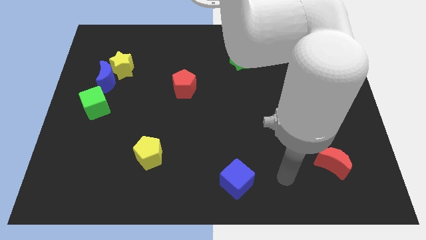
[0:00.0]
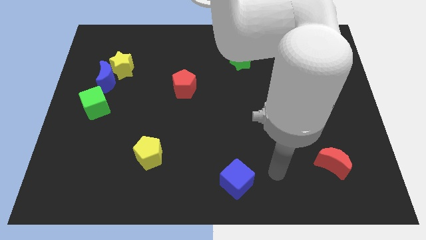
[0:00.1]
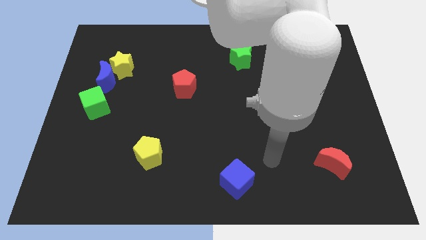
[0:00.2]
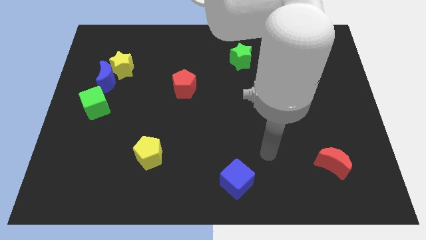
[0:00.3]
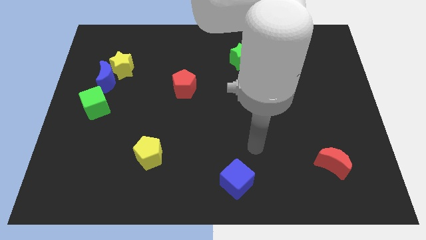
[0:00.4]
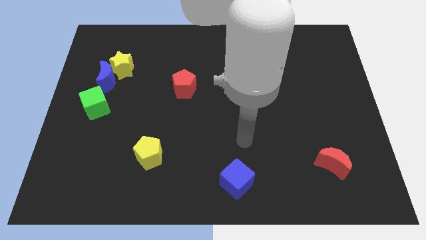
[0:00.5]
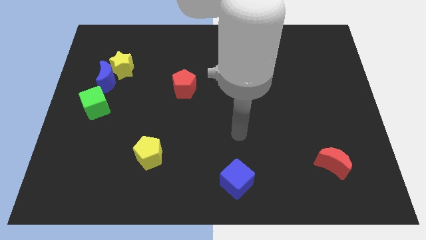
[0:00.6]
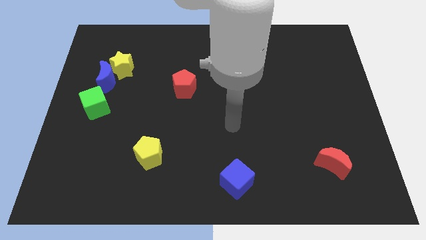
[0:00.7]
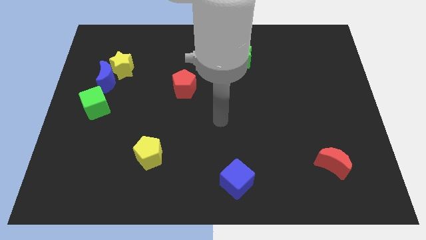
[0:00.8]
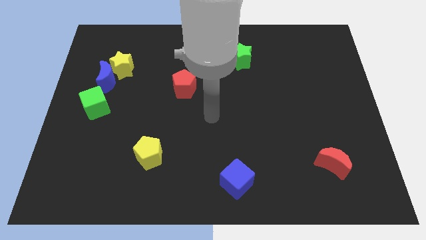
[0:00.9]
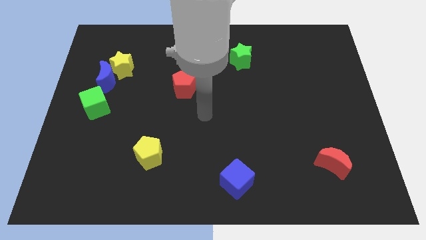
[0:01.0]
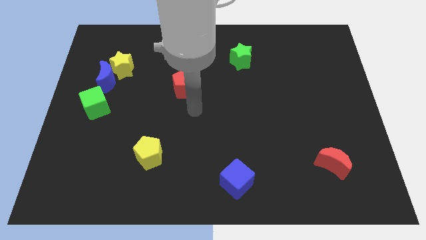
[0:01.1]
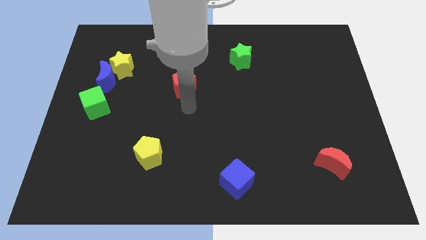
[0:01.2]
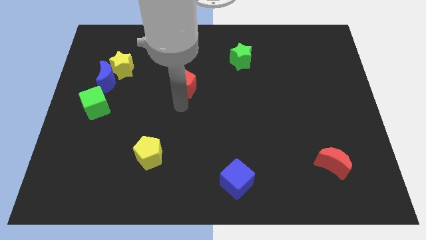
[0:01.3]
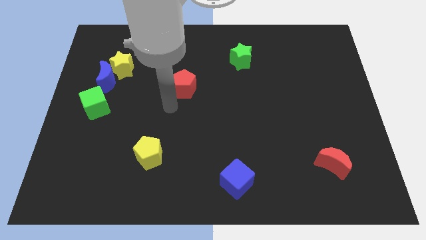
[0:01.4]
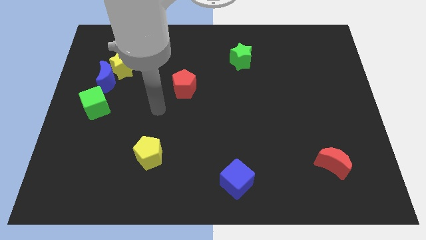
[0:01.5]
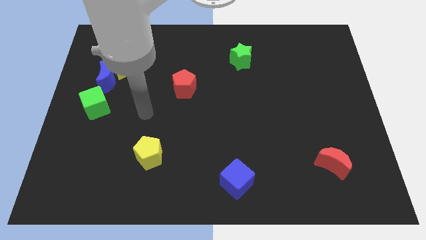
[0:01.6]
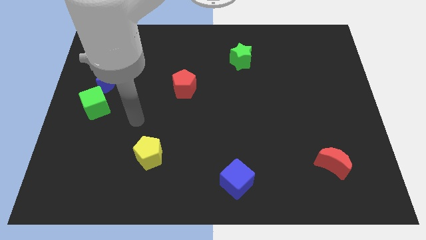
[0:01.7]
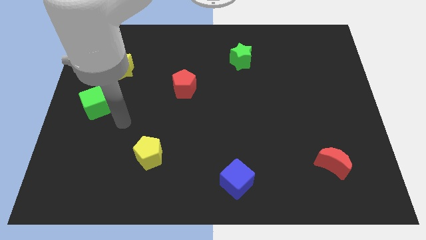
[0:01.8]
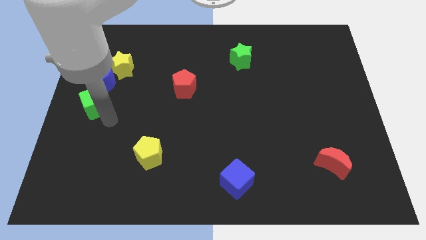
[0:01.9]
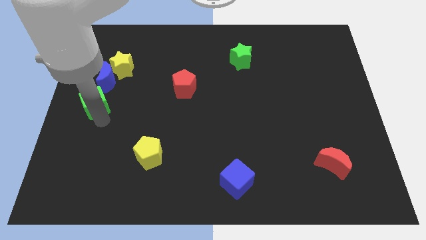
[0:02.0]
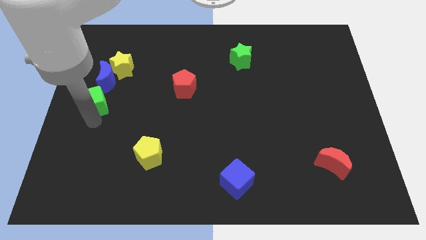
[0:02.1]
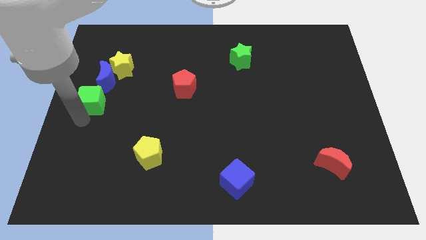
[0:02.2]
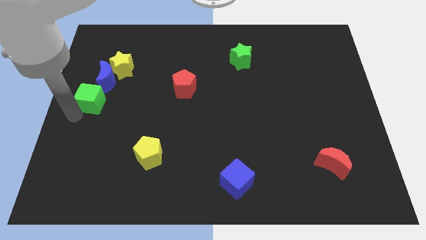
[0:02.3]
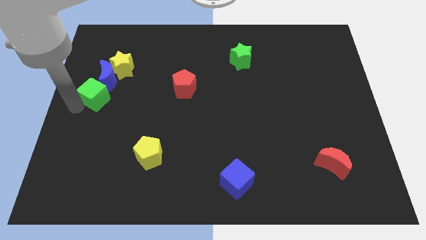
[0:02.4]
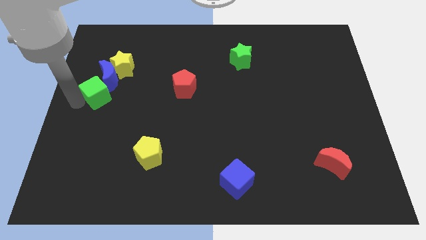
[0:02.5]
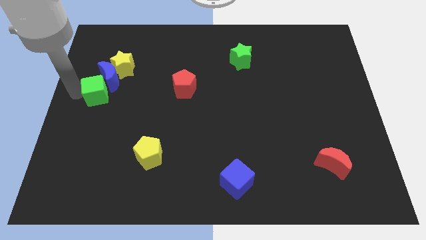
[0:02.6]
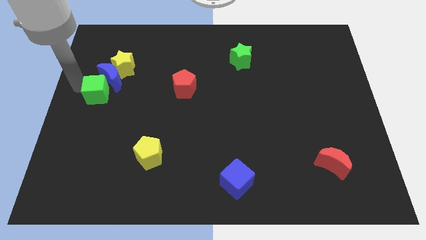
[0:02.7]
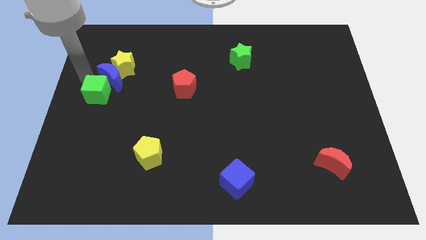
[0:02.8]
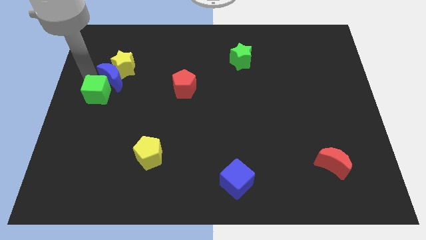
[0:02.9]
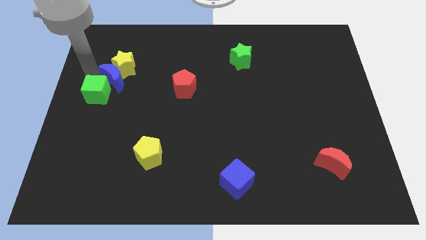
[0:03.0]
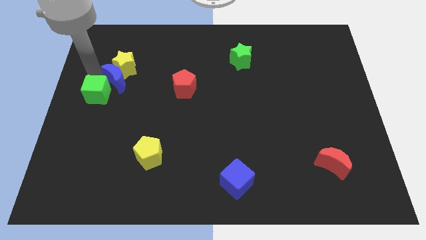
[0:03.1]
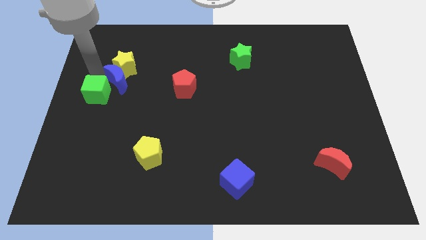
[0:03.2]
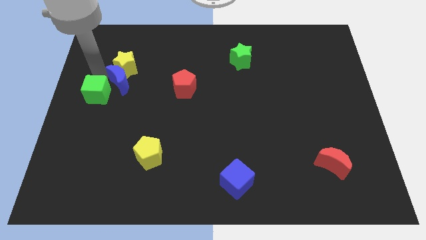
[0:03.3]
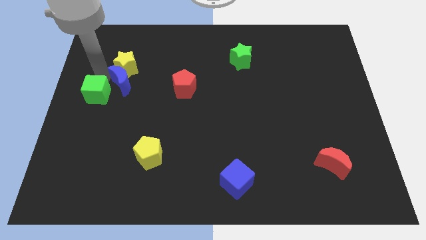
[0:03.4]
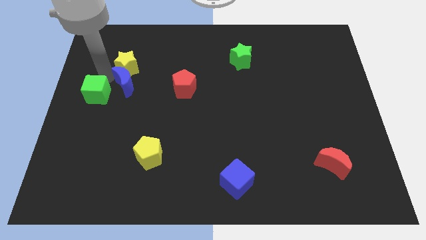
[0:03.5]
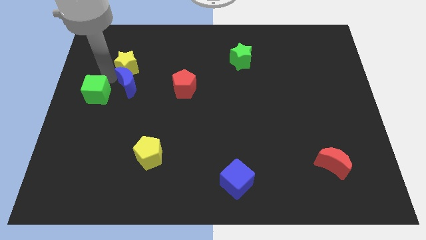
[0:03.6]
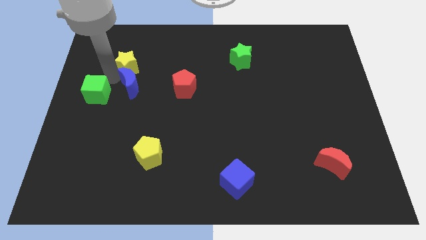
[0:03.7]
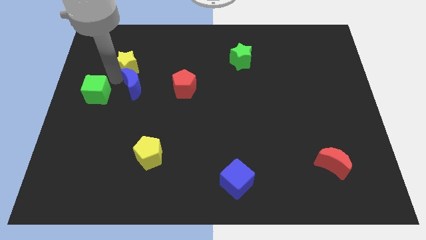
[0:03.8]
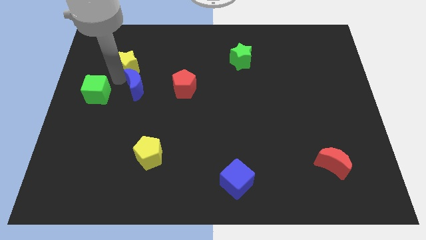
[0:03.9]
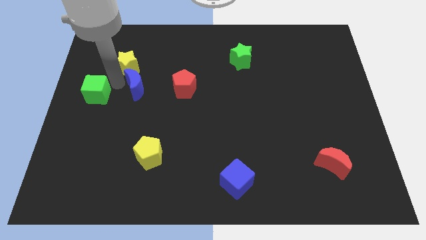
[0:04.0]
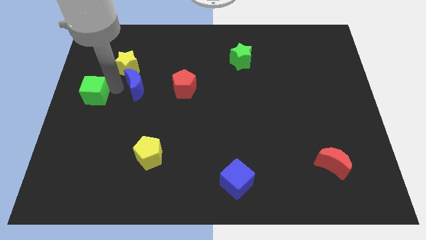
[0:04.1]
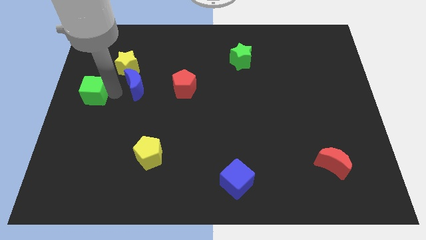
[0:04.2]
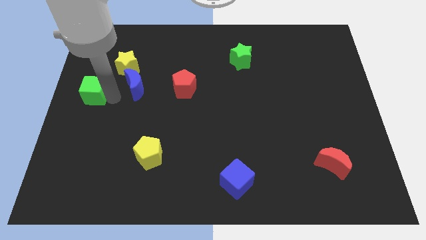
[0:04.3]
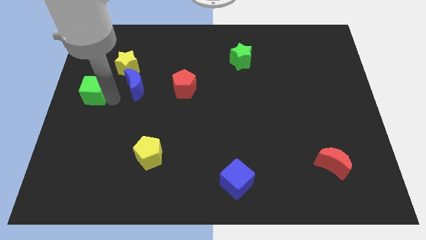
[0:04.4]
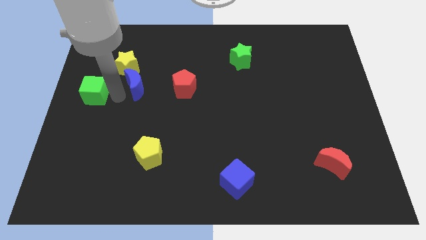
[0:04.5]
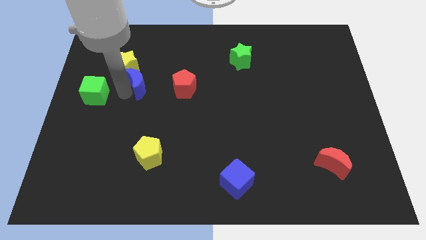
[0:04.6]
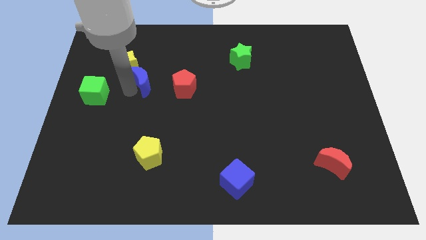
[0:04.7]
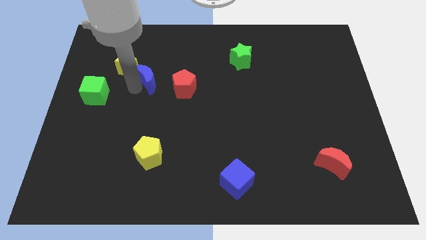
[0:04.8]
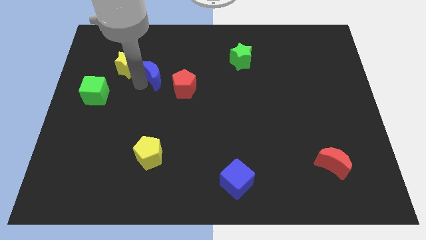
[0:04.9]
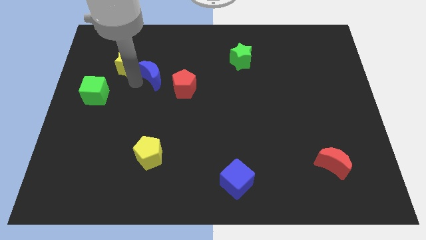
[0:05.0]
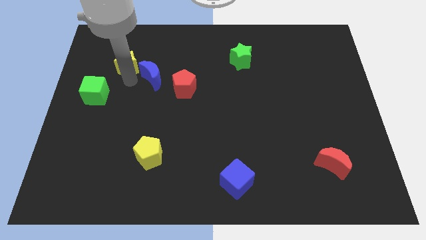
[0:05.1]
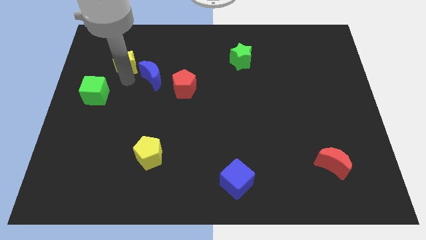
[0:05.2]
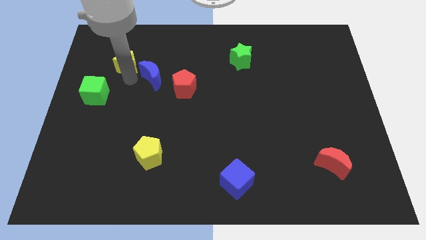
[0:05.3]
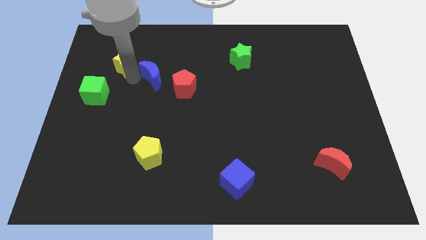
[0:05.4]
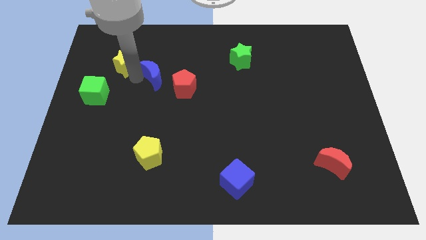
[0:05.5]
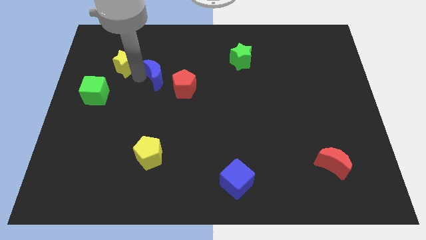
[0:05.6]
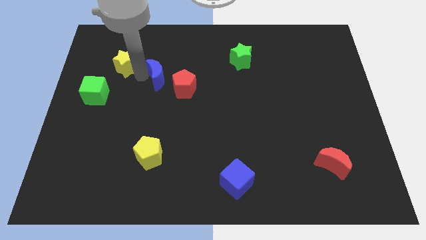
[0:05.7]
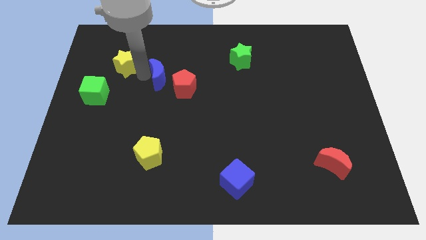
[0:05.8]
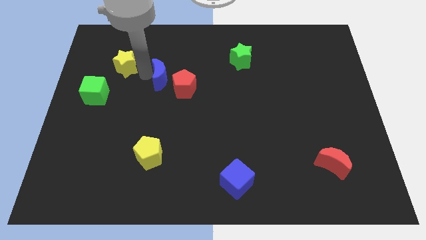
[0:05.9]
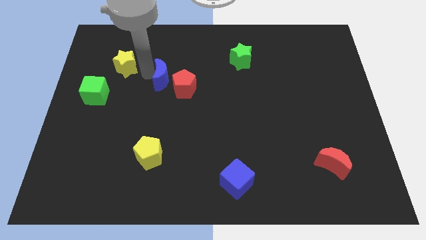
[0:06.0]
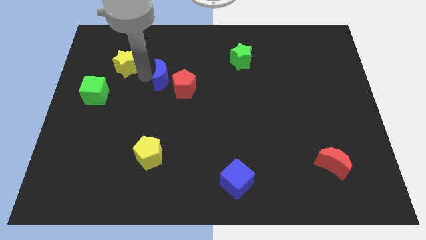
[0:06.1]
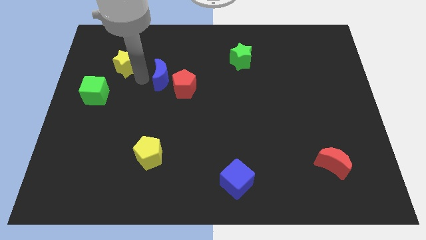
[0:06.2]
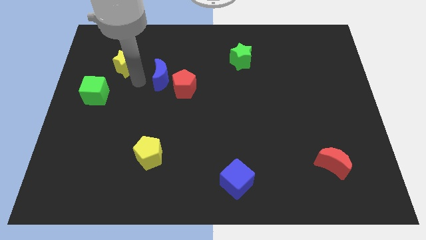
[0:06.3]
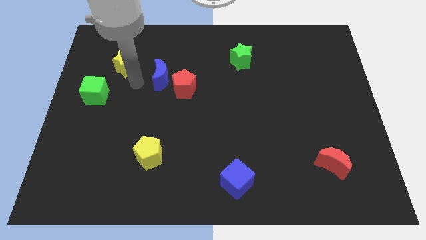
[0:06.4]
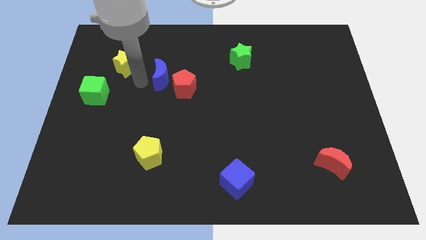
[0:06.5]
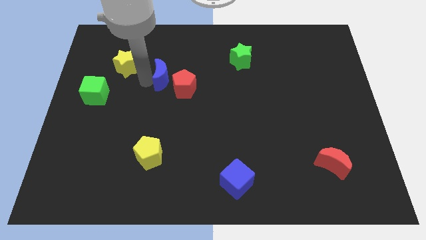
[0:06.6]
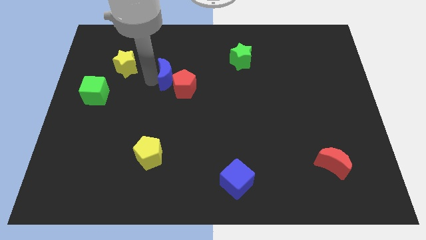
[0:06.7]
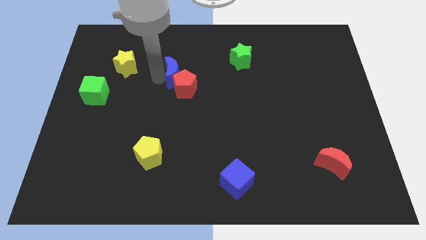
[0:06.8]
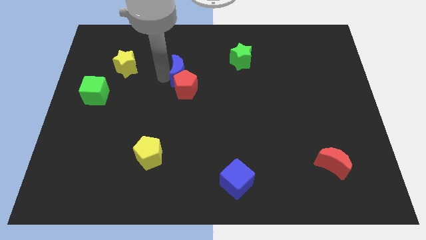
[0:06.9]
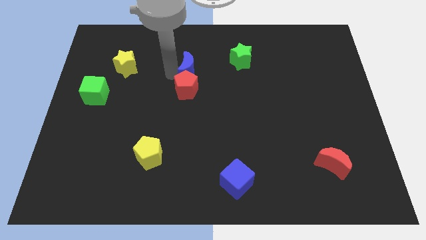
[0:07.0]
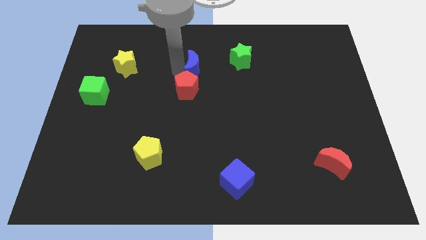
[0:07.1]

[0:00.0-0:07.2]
slide the blue moon to the right

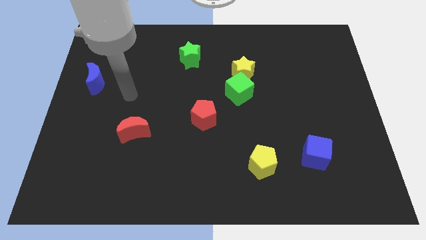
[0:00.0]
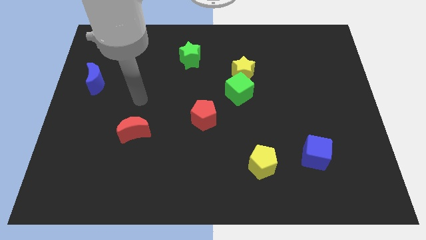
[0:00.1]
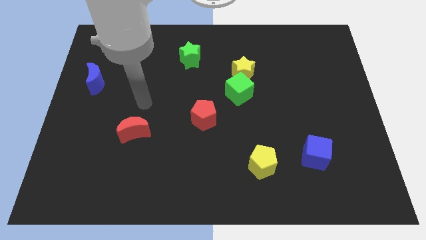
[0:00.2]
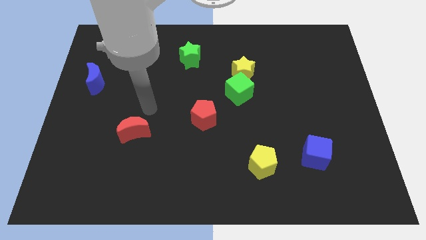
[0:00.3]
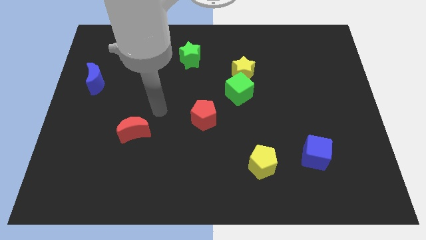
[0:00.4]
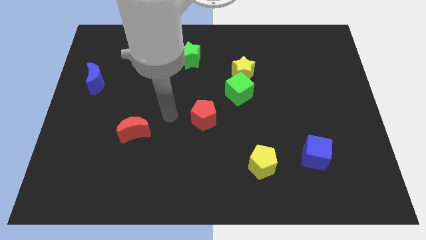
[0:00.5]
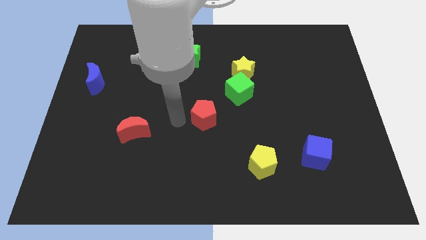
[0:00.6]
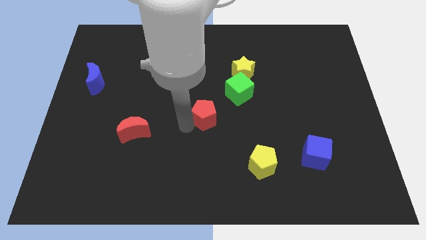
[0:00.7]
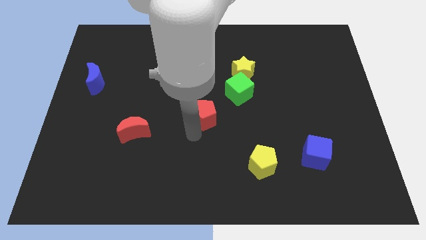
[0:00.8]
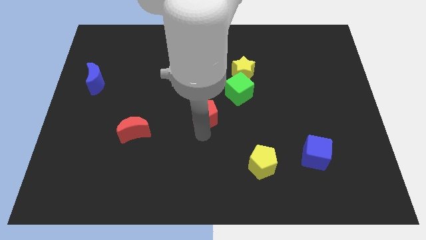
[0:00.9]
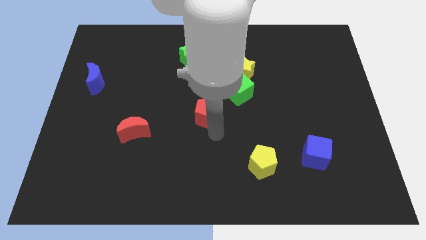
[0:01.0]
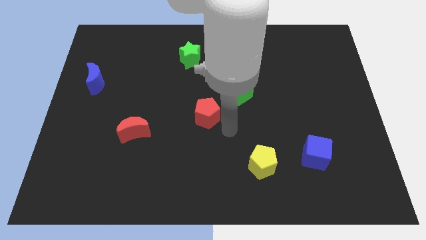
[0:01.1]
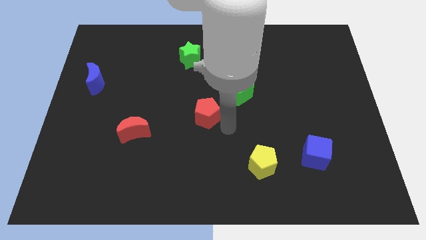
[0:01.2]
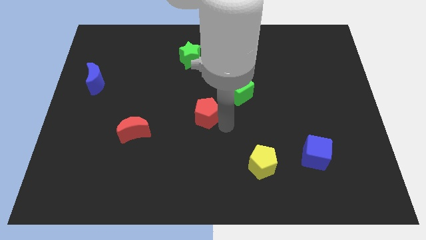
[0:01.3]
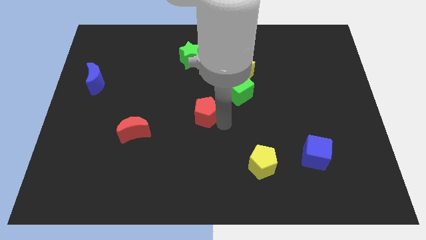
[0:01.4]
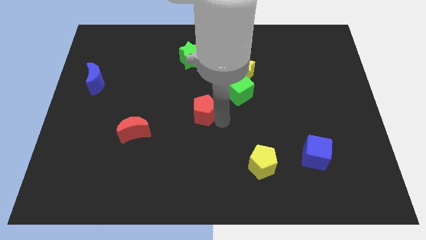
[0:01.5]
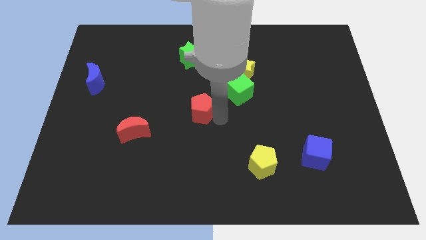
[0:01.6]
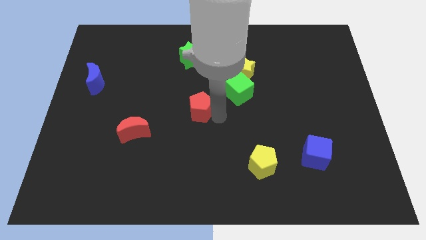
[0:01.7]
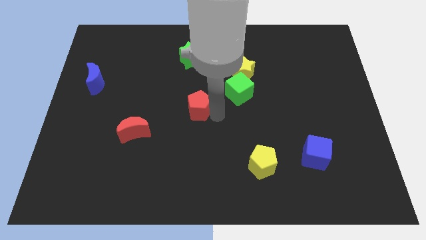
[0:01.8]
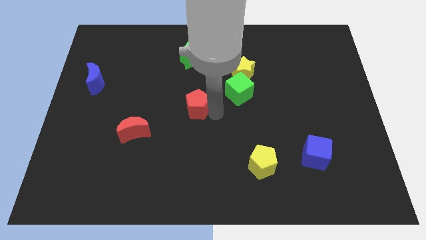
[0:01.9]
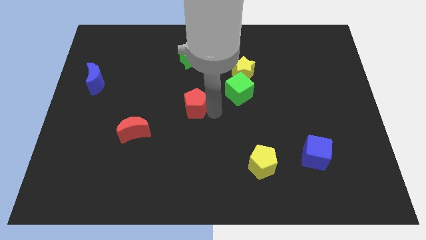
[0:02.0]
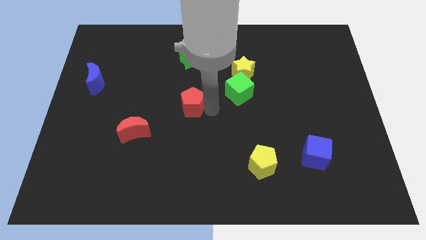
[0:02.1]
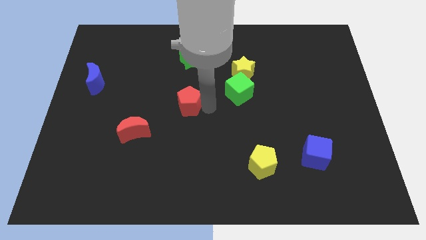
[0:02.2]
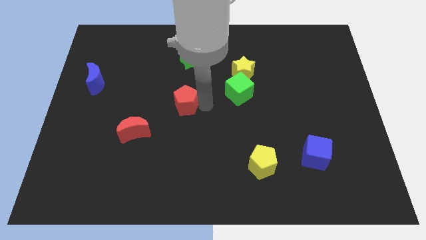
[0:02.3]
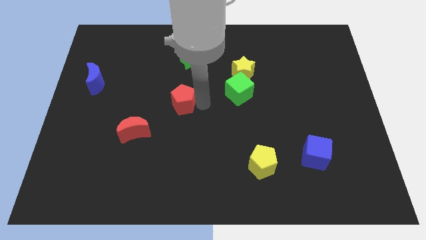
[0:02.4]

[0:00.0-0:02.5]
slightly slide the red pentagon up and left
